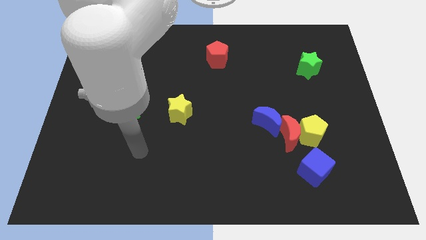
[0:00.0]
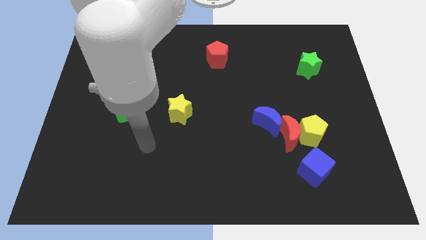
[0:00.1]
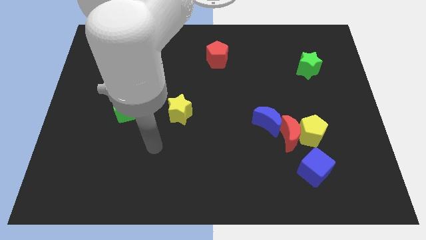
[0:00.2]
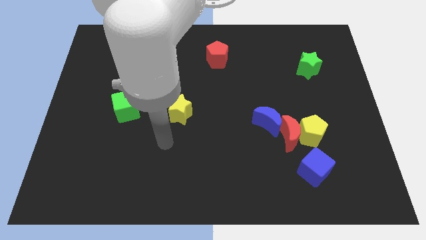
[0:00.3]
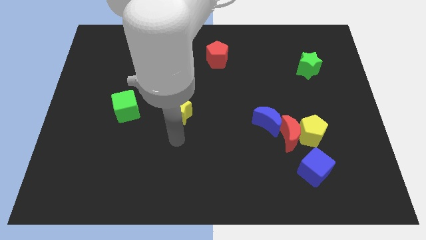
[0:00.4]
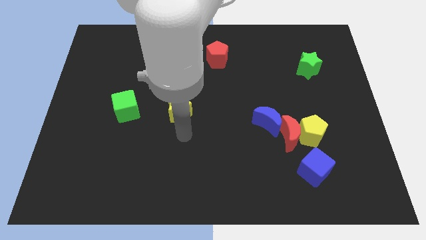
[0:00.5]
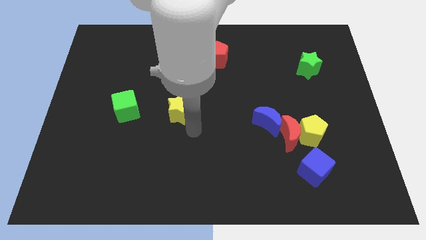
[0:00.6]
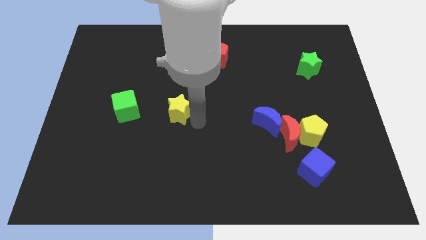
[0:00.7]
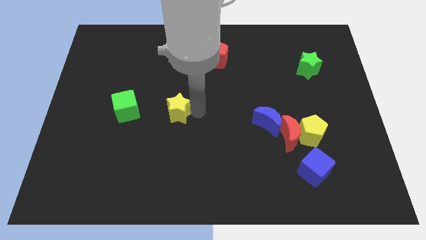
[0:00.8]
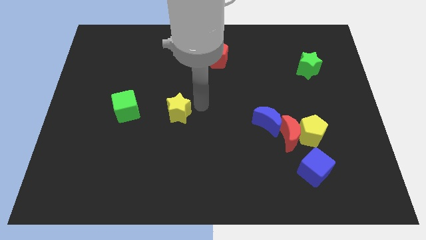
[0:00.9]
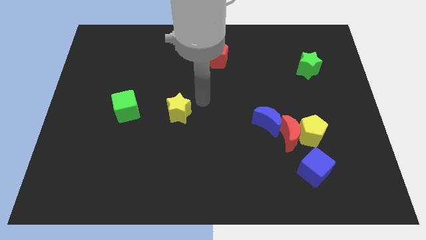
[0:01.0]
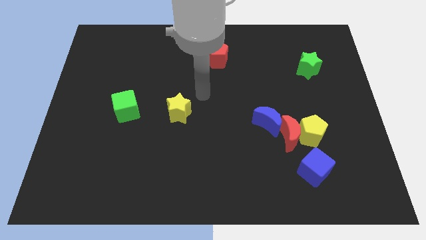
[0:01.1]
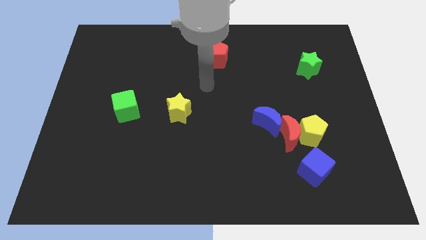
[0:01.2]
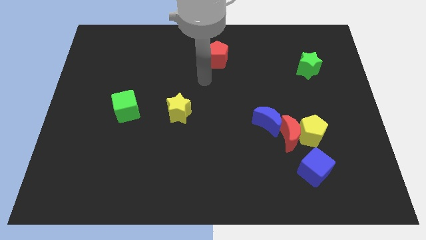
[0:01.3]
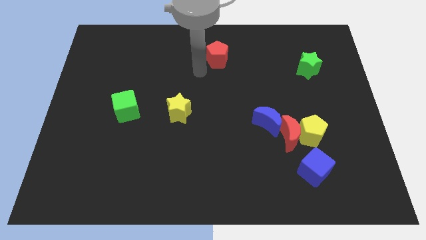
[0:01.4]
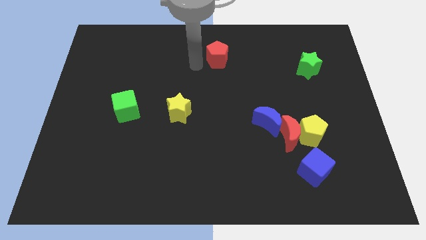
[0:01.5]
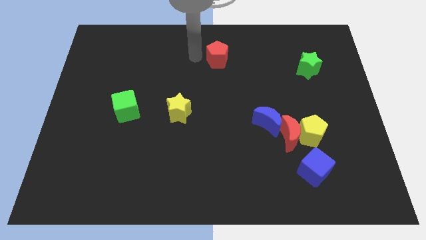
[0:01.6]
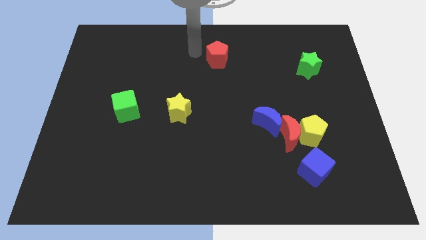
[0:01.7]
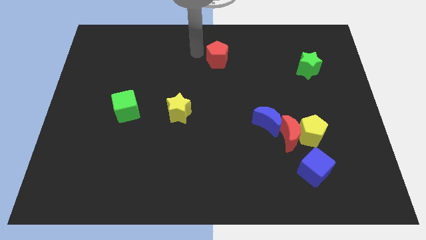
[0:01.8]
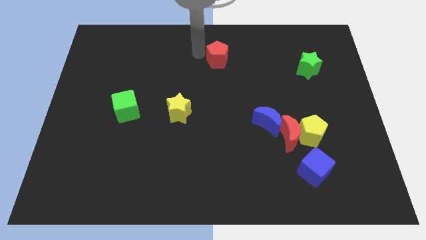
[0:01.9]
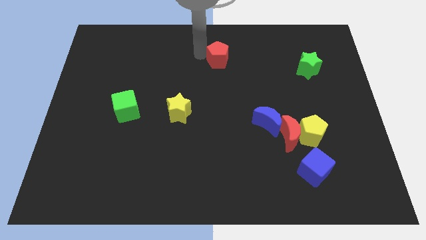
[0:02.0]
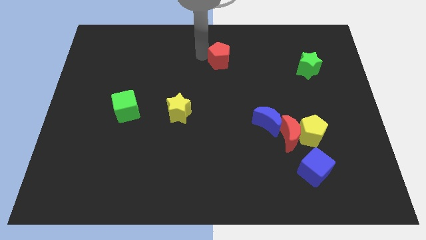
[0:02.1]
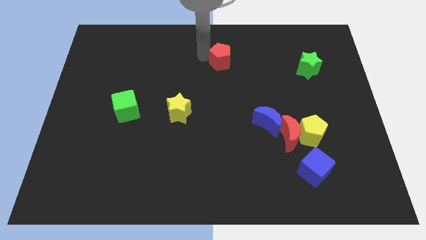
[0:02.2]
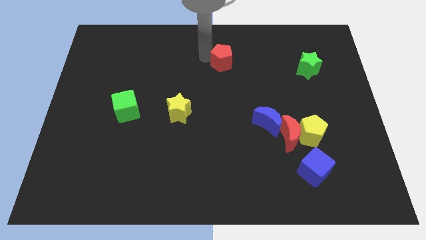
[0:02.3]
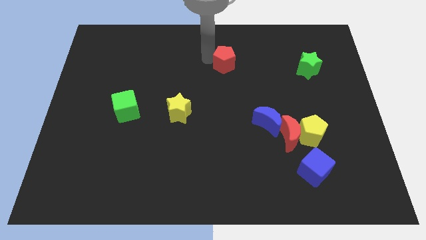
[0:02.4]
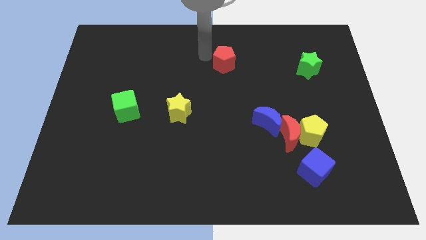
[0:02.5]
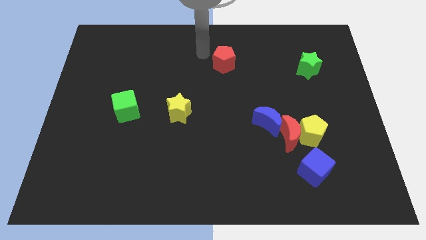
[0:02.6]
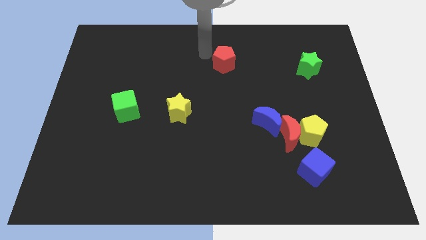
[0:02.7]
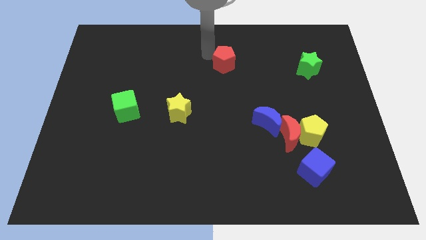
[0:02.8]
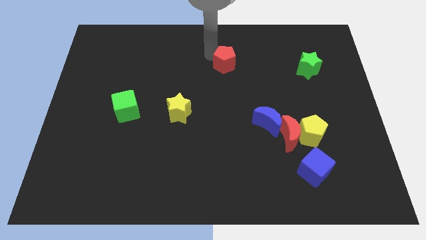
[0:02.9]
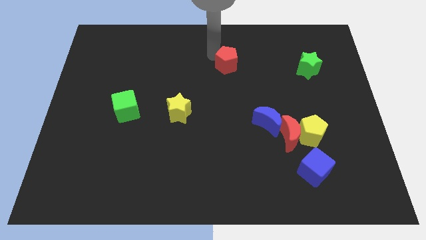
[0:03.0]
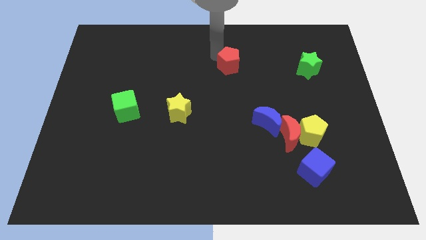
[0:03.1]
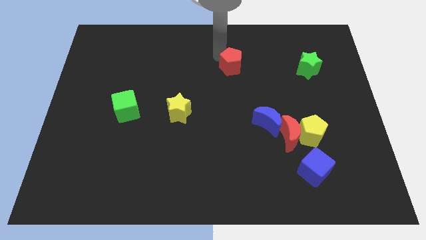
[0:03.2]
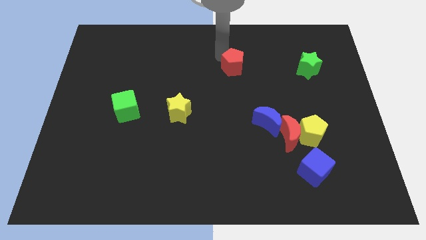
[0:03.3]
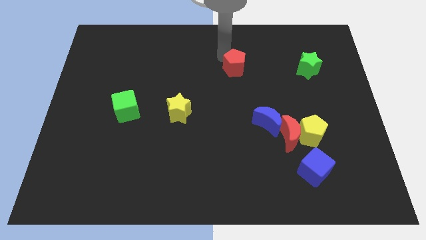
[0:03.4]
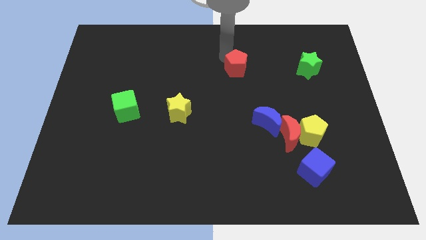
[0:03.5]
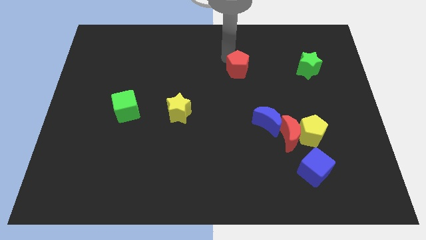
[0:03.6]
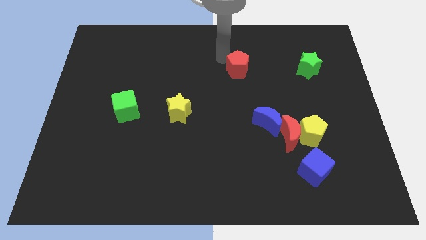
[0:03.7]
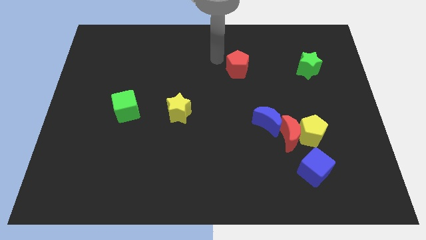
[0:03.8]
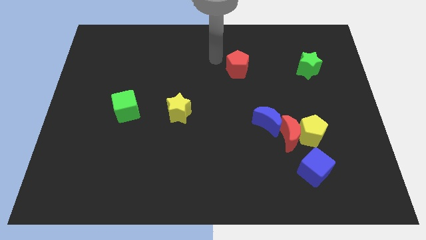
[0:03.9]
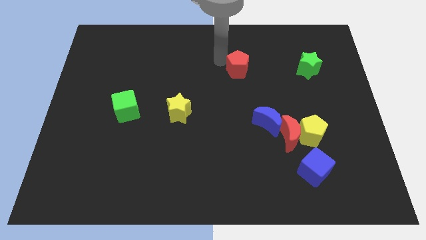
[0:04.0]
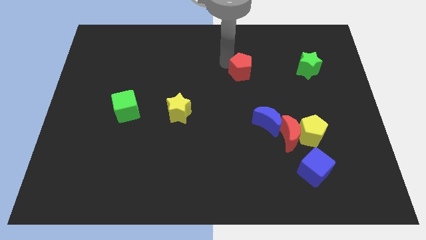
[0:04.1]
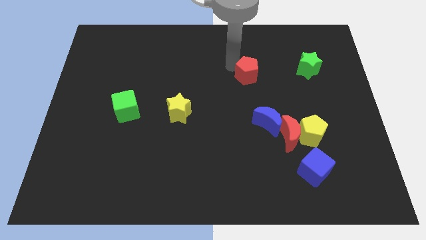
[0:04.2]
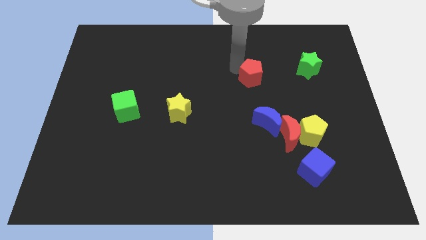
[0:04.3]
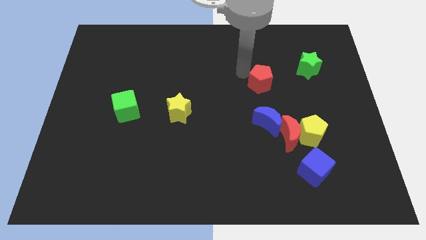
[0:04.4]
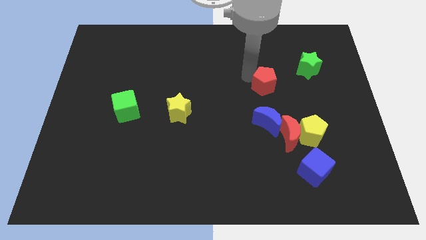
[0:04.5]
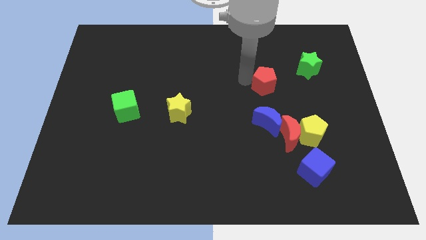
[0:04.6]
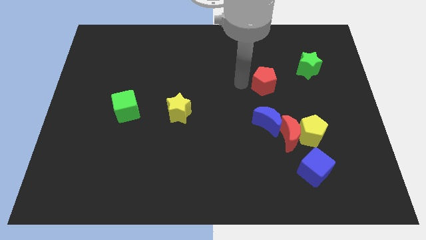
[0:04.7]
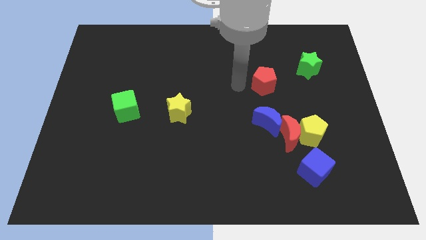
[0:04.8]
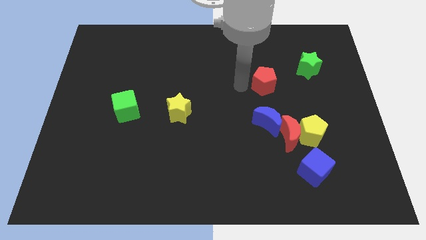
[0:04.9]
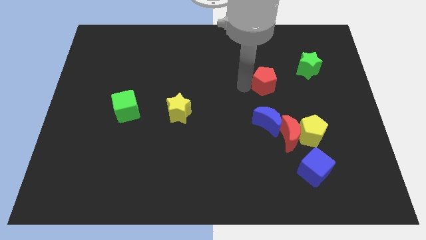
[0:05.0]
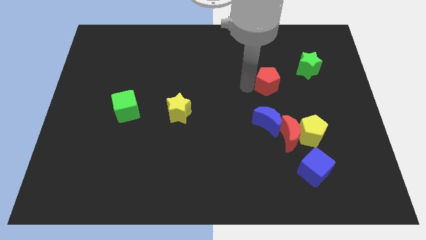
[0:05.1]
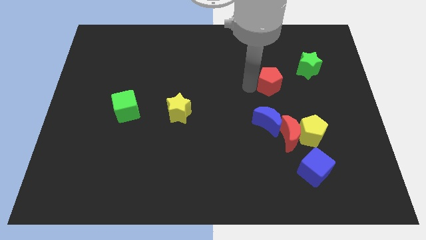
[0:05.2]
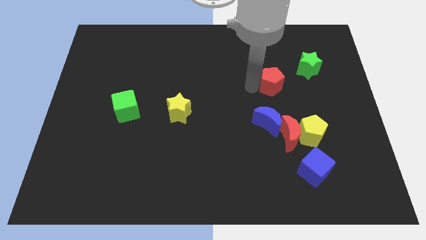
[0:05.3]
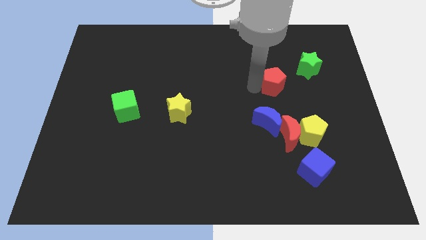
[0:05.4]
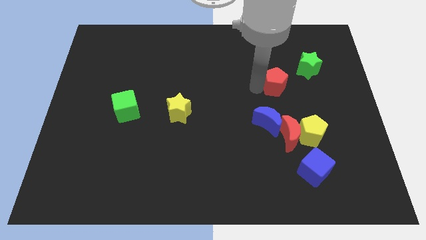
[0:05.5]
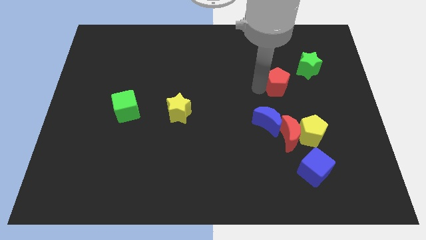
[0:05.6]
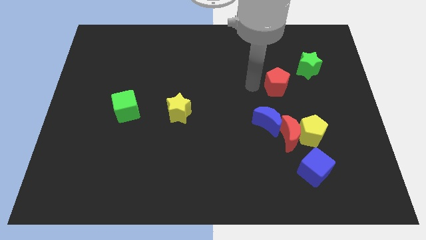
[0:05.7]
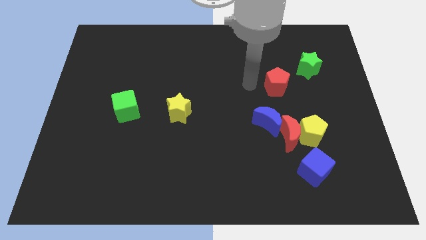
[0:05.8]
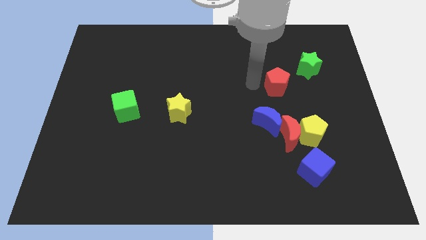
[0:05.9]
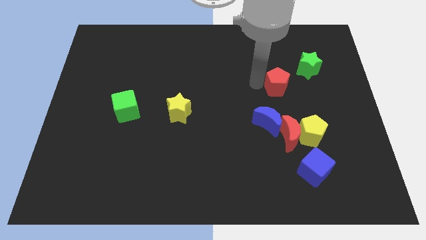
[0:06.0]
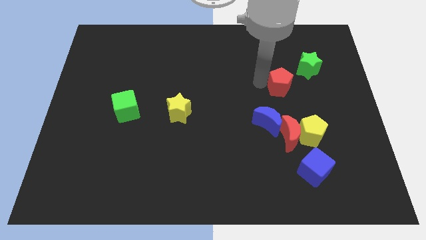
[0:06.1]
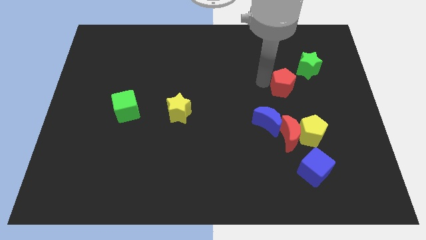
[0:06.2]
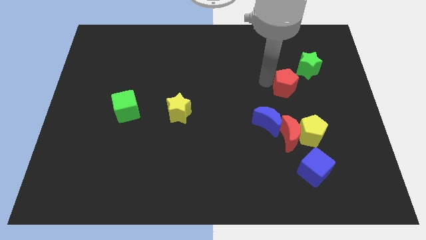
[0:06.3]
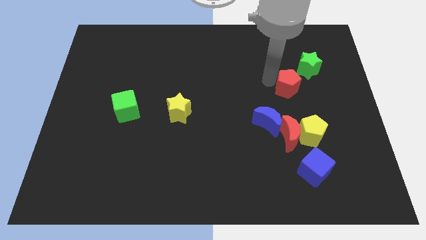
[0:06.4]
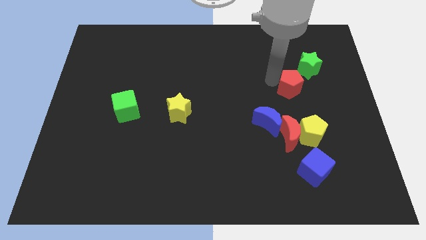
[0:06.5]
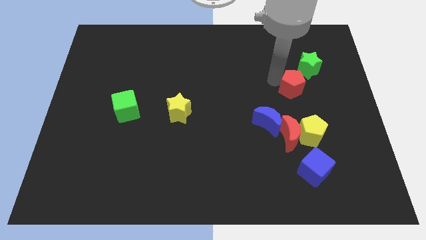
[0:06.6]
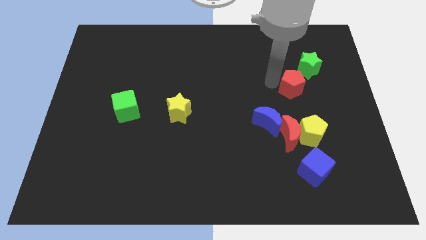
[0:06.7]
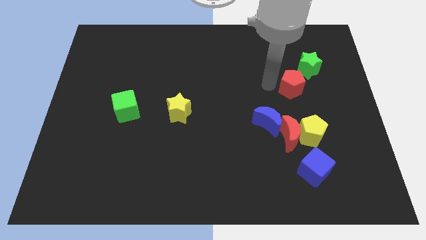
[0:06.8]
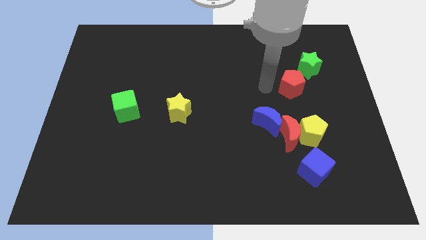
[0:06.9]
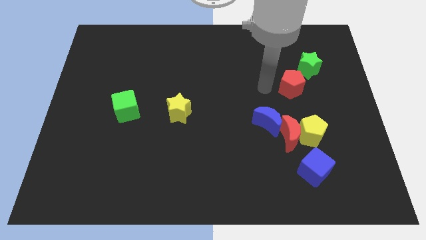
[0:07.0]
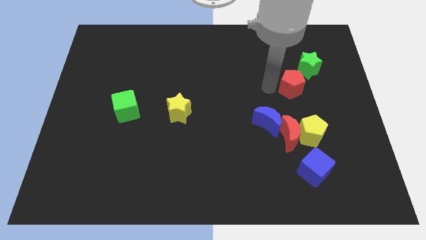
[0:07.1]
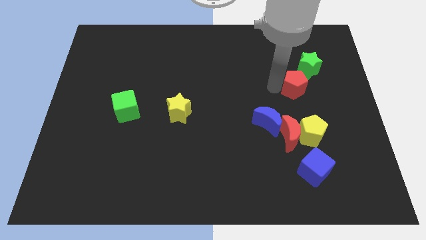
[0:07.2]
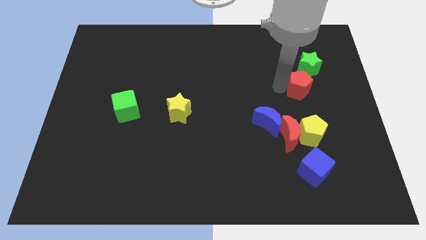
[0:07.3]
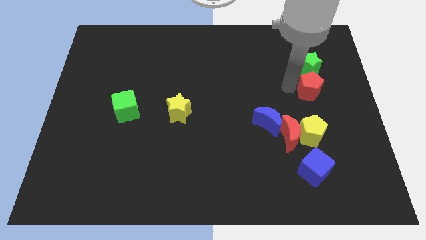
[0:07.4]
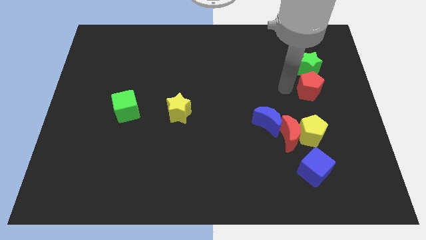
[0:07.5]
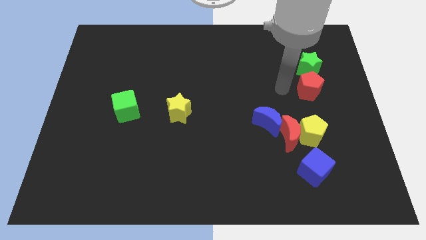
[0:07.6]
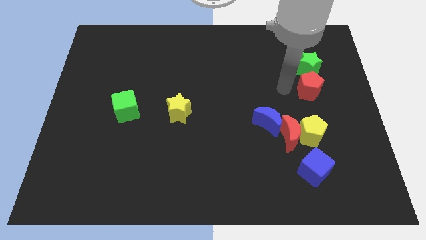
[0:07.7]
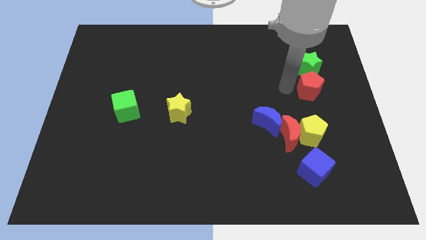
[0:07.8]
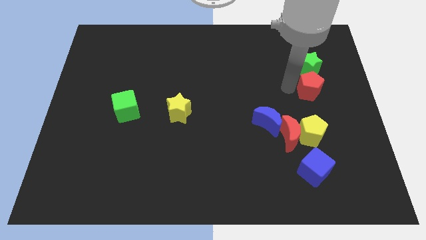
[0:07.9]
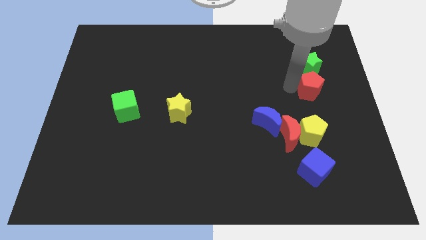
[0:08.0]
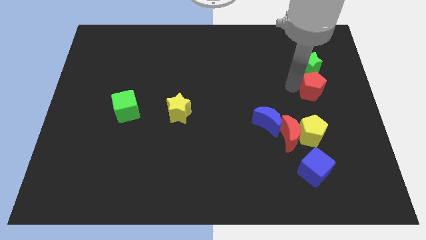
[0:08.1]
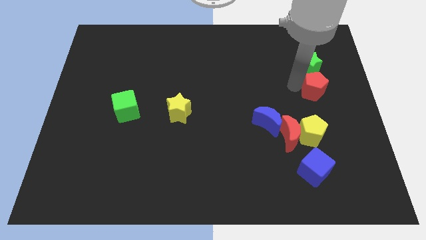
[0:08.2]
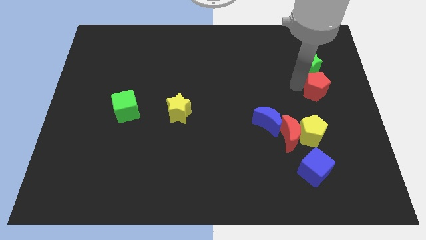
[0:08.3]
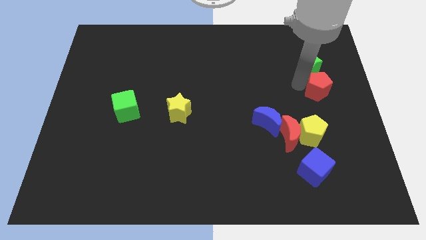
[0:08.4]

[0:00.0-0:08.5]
move the red pentagon to the right side of the board
